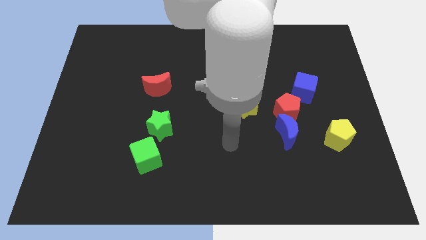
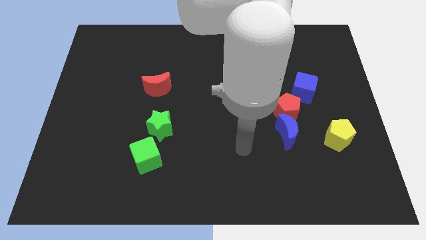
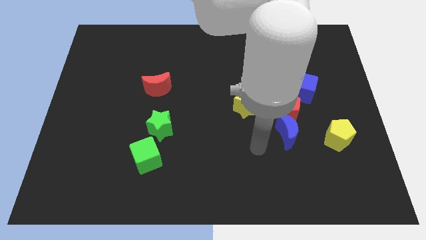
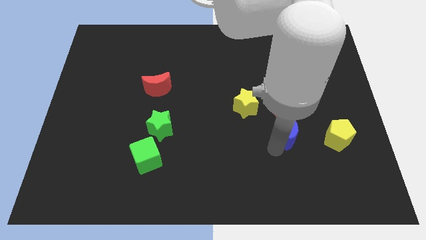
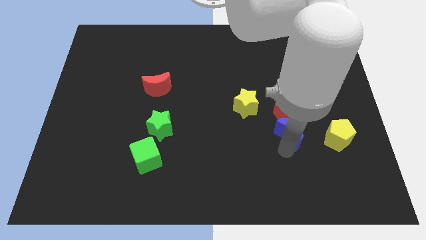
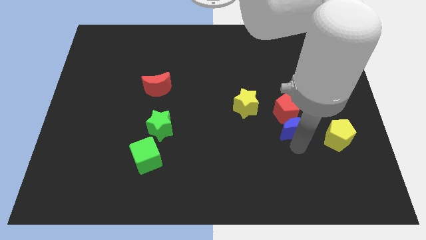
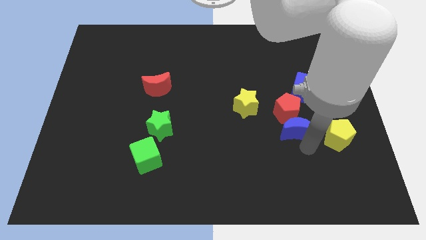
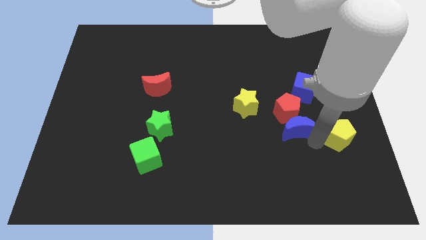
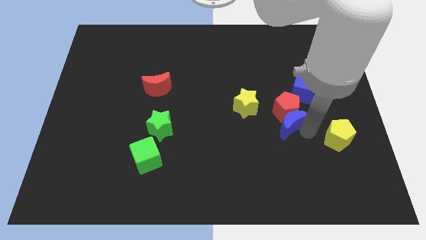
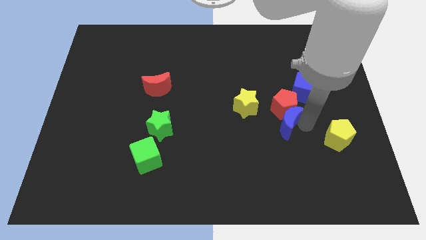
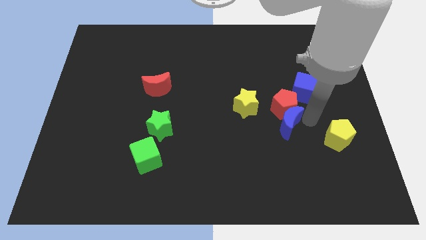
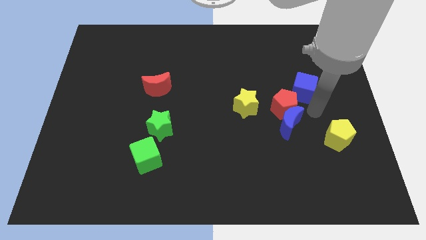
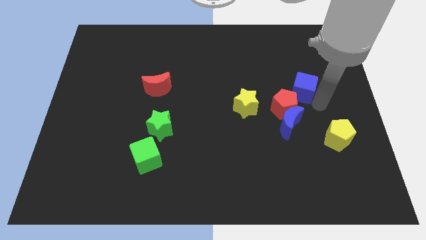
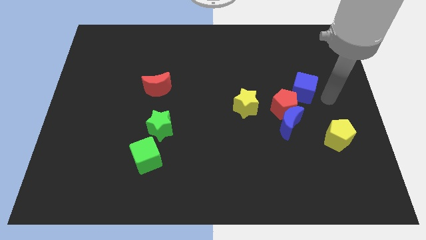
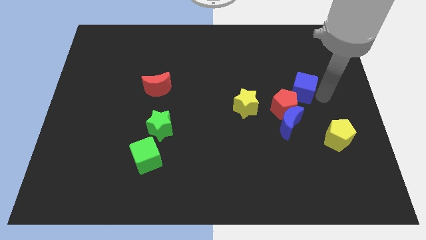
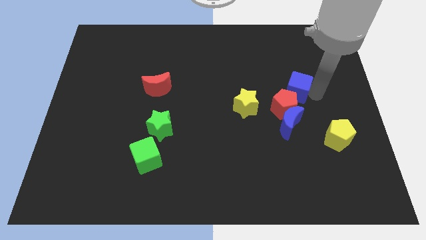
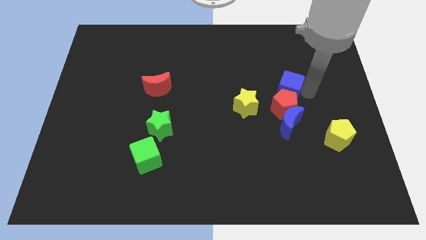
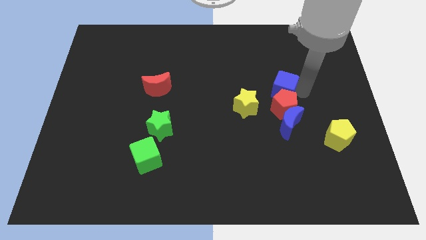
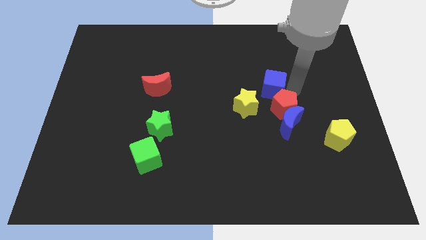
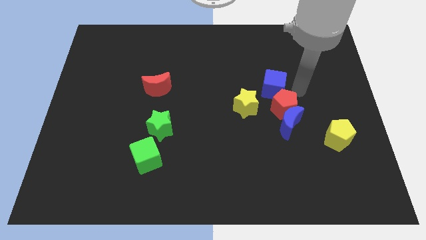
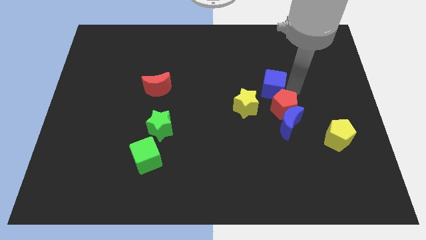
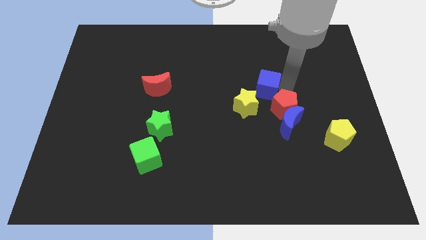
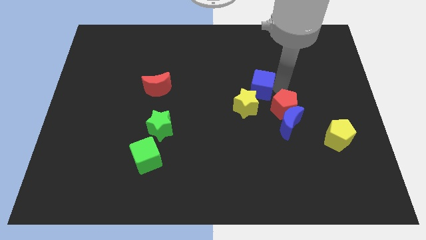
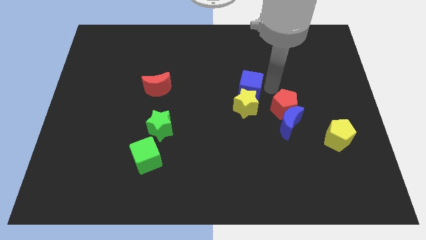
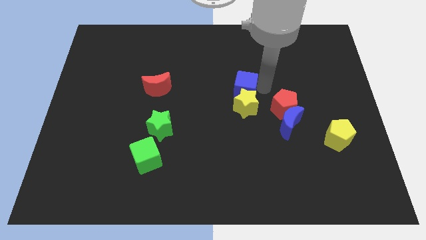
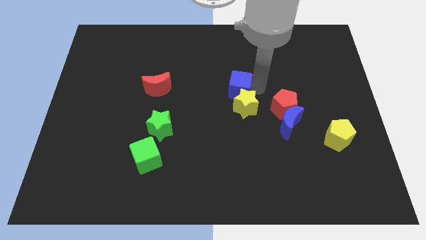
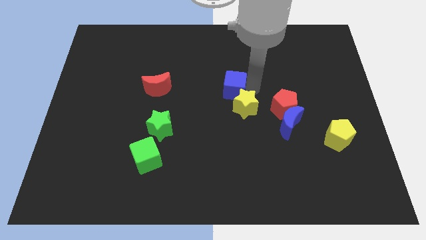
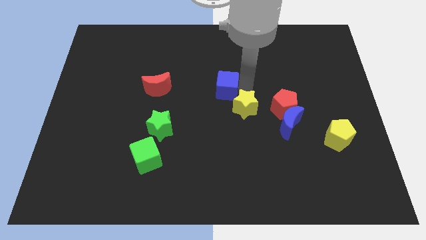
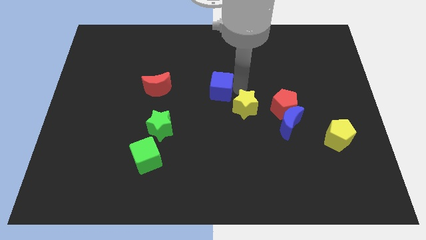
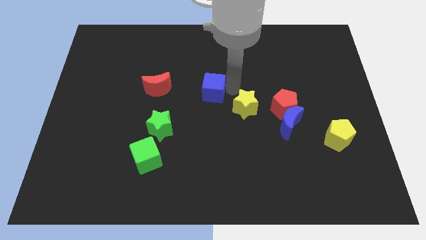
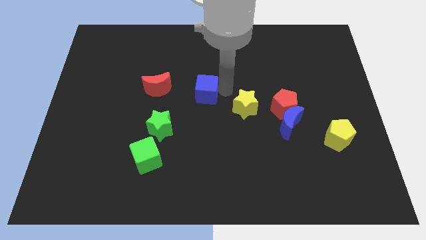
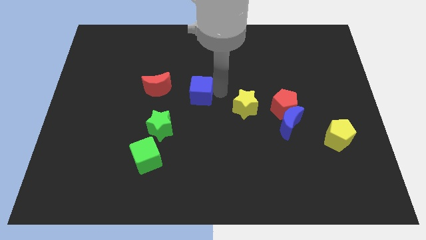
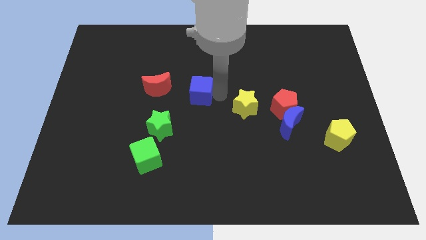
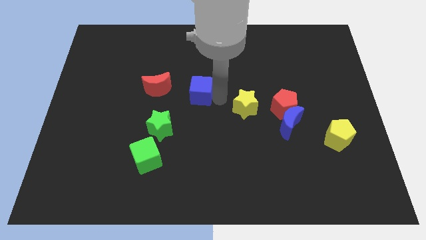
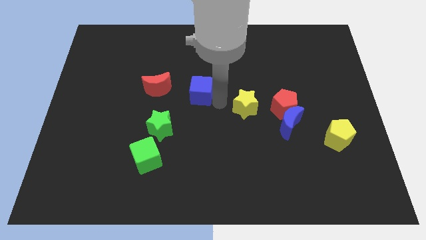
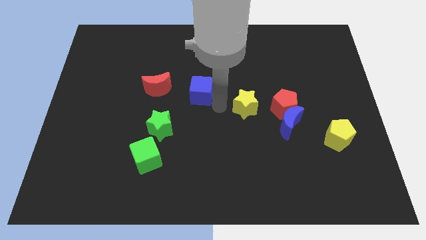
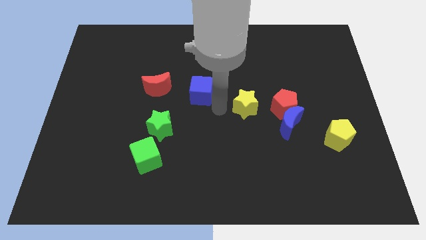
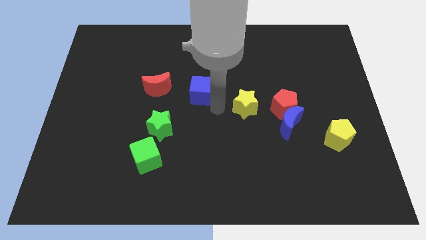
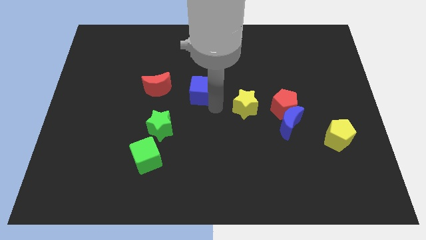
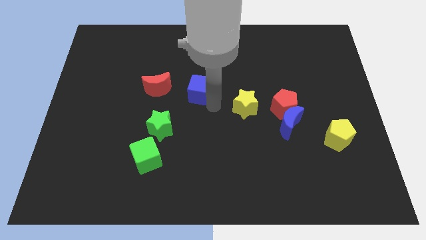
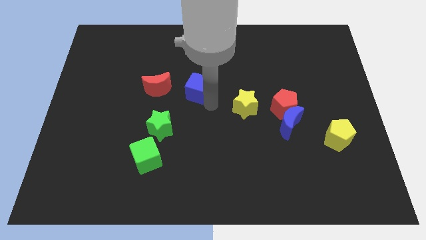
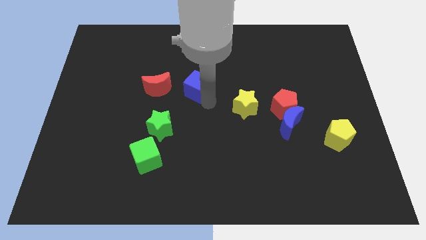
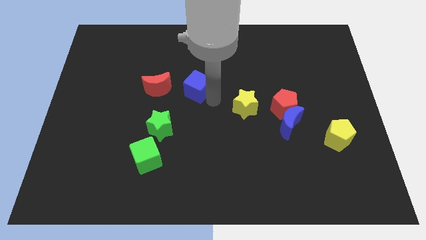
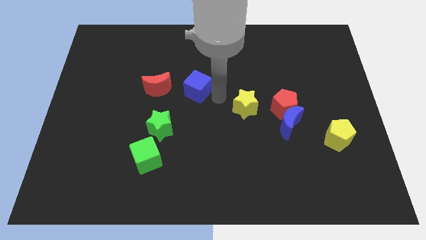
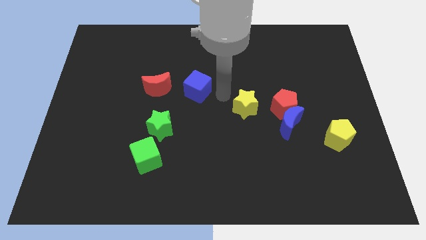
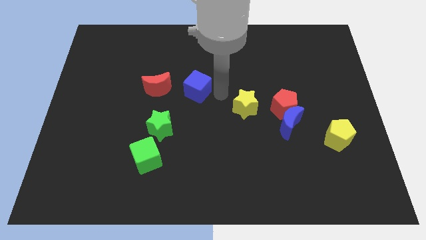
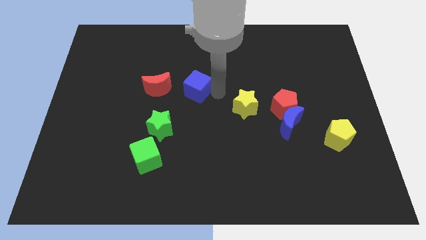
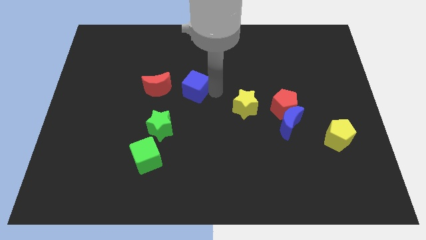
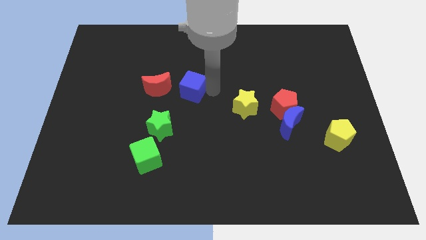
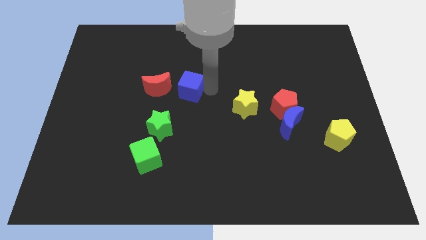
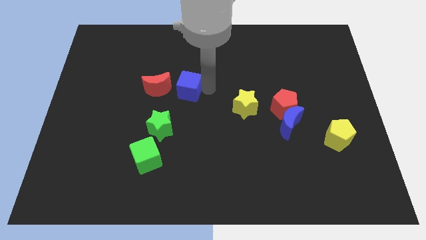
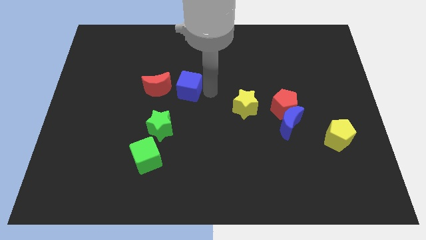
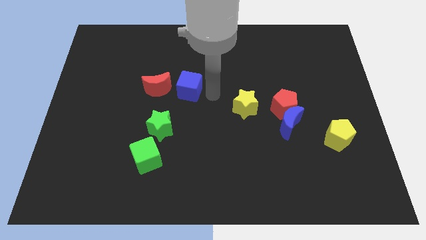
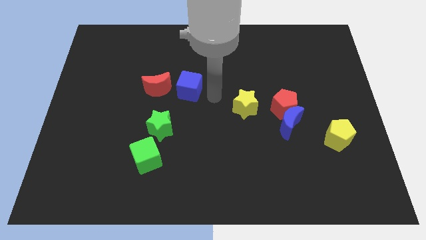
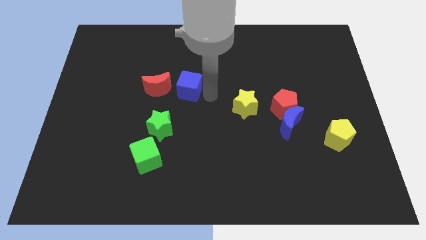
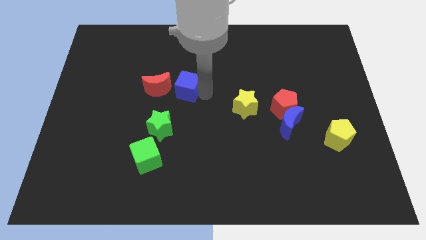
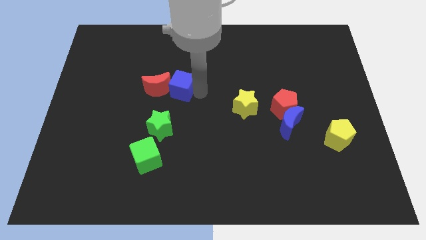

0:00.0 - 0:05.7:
push the blue cube close to the red moon

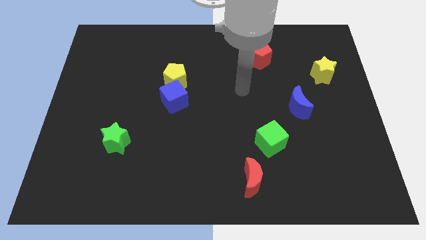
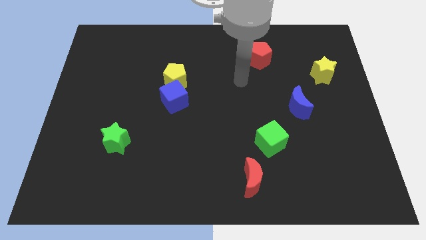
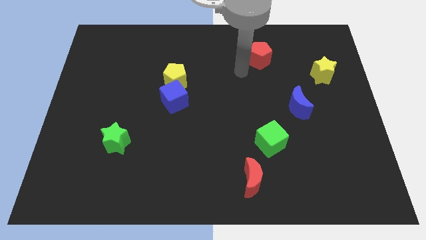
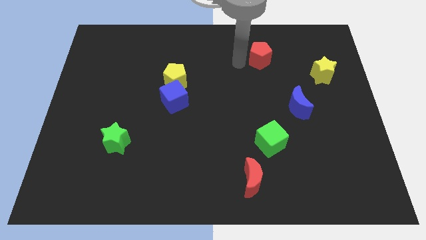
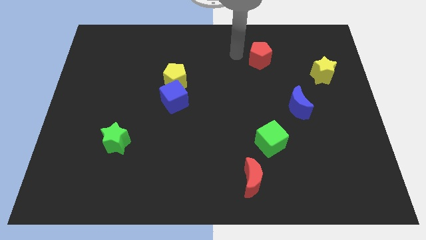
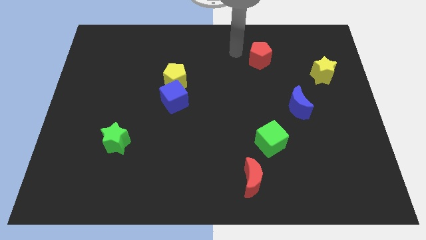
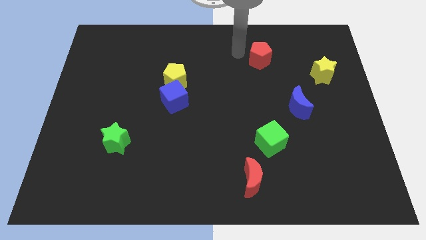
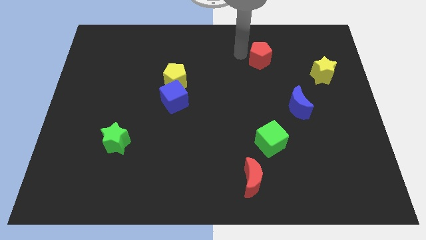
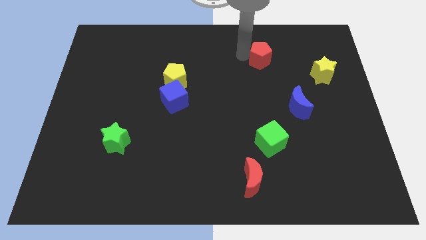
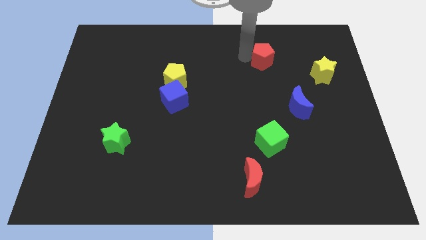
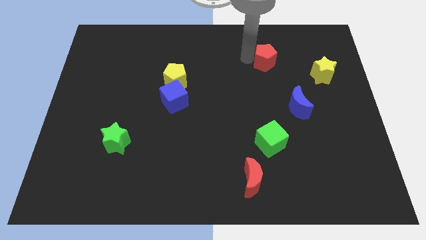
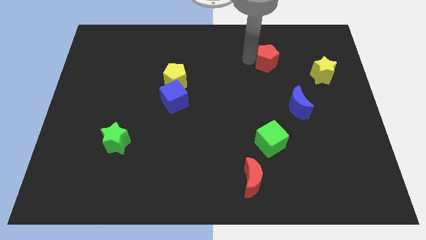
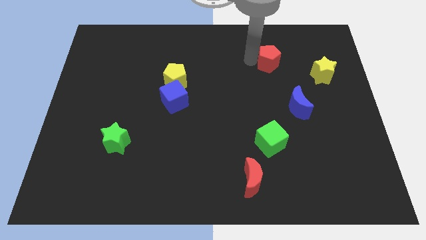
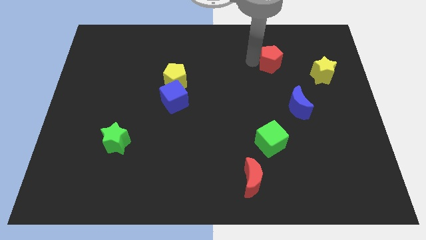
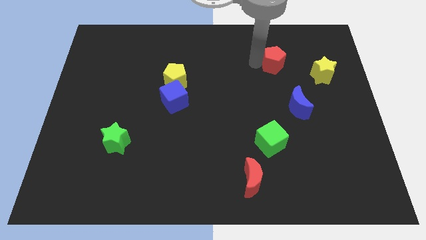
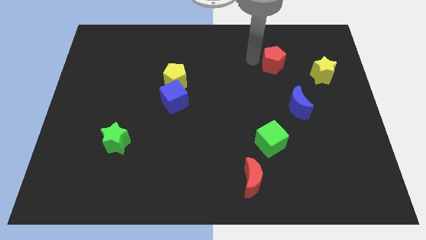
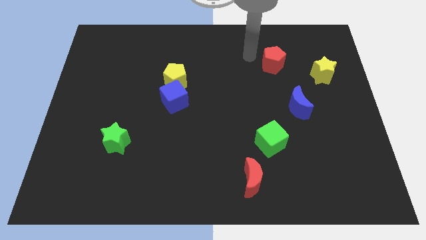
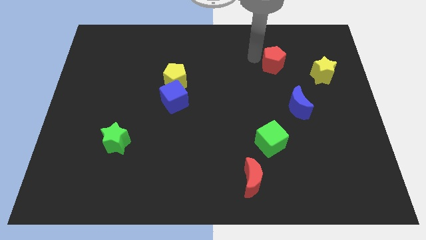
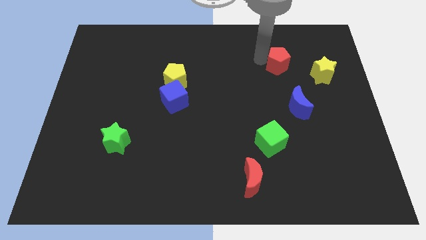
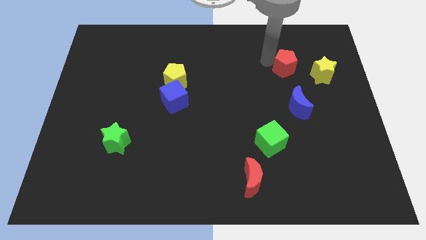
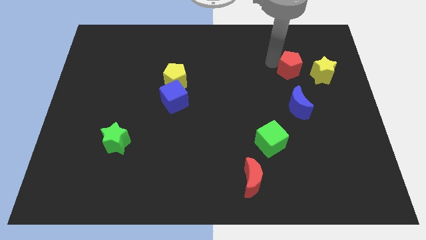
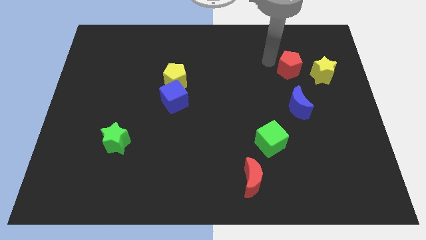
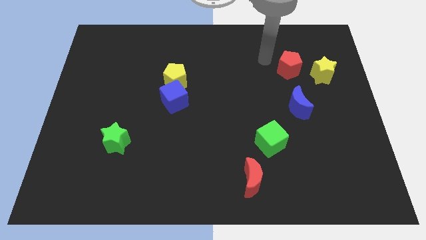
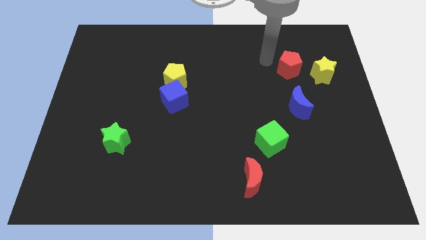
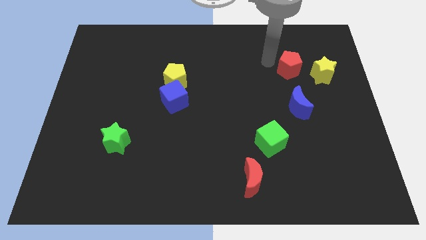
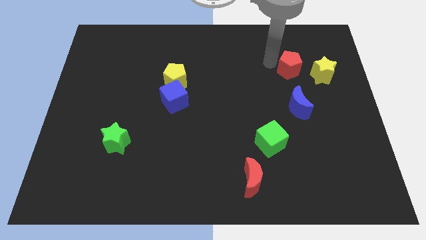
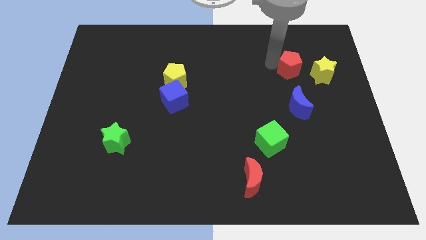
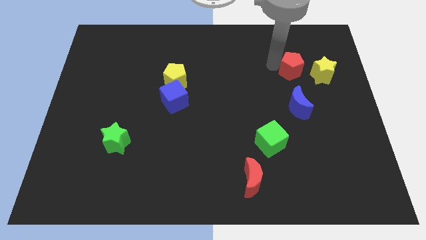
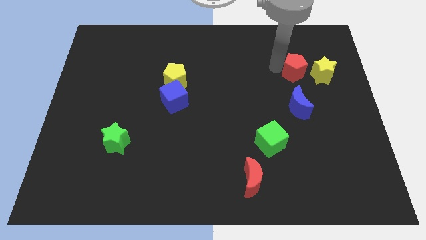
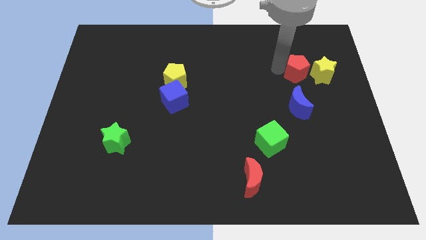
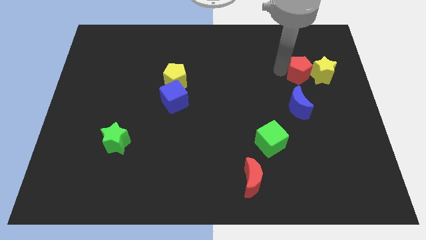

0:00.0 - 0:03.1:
move the red pentagon towards the yellow star
